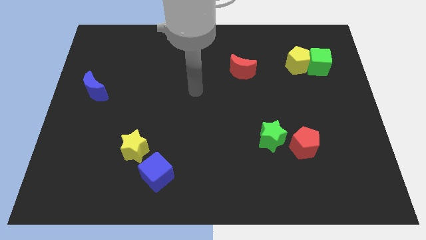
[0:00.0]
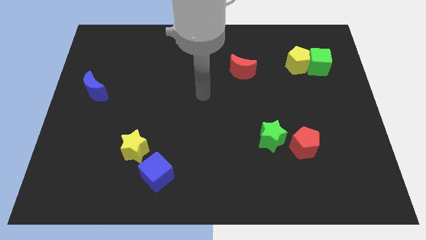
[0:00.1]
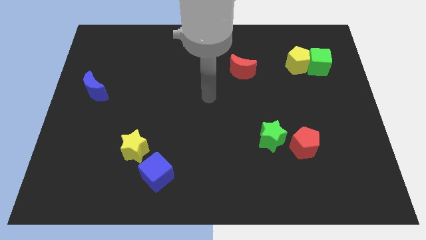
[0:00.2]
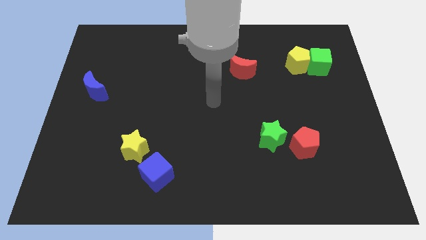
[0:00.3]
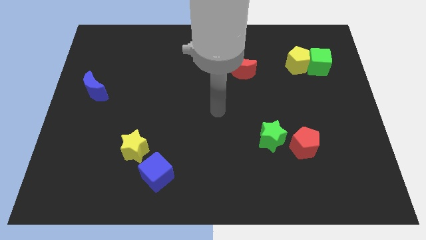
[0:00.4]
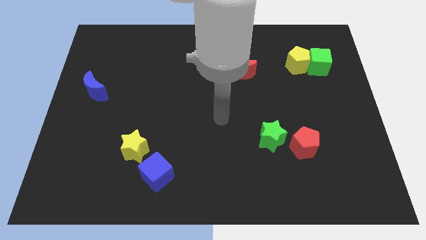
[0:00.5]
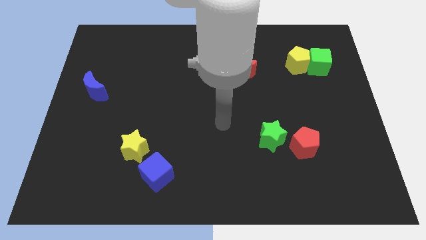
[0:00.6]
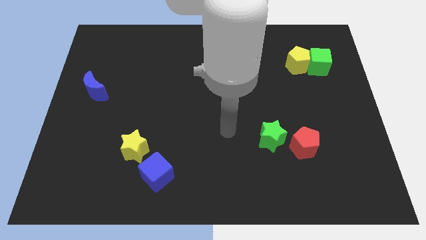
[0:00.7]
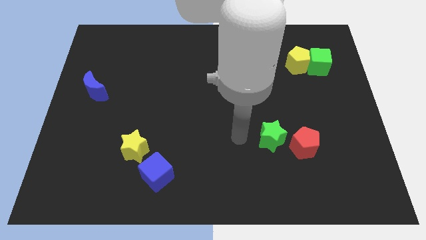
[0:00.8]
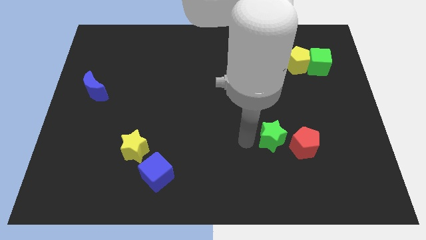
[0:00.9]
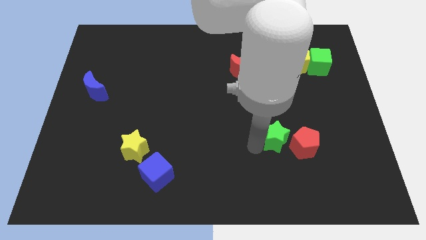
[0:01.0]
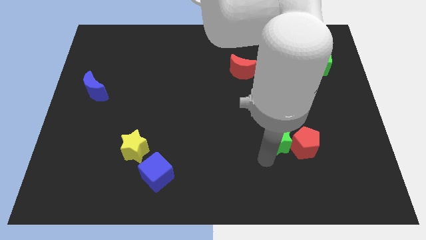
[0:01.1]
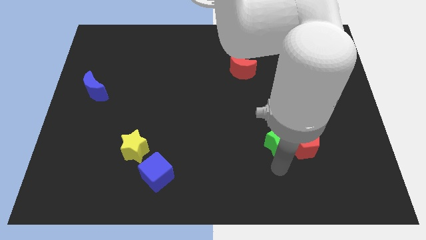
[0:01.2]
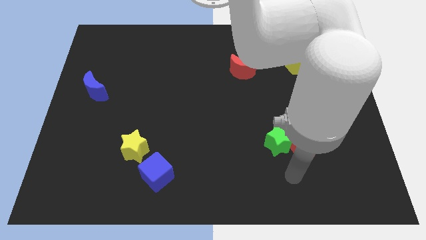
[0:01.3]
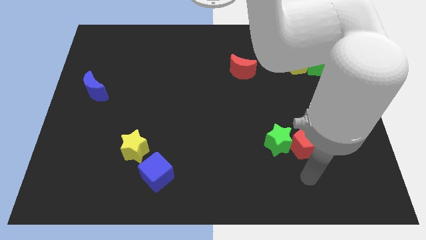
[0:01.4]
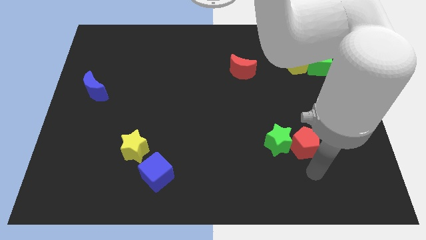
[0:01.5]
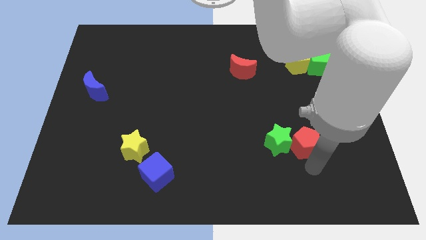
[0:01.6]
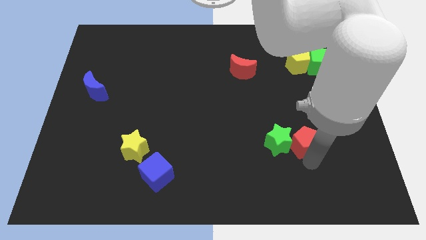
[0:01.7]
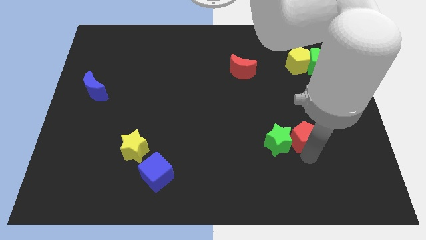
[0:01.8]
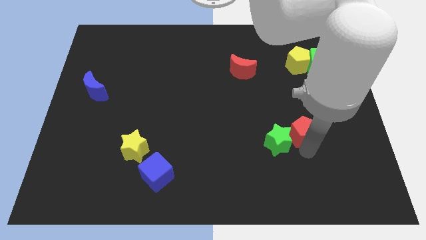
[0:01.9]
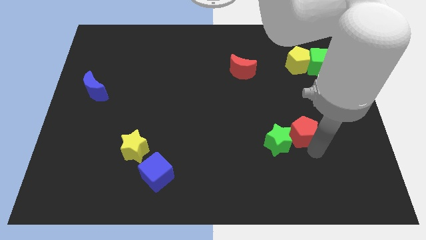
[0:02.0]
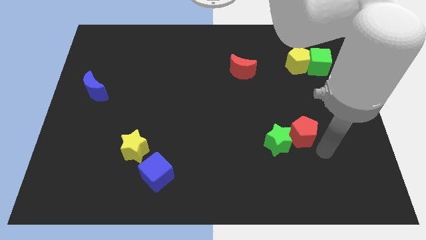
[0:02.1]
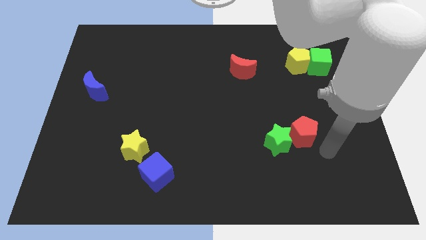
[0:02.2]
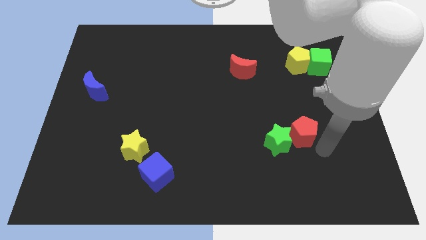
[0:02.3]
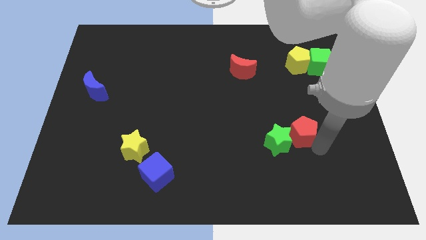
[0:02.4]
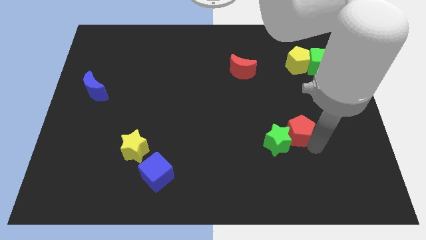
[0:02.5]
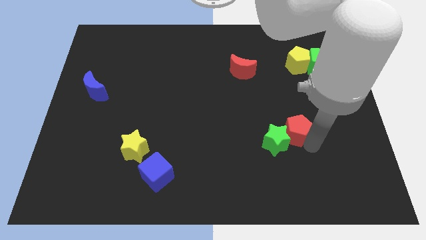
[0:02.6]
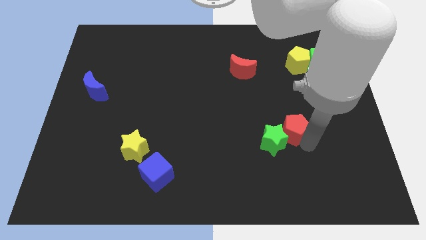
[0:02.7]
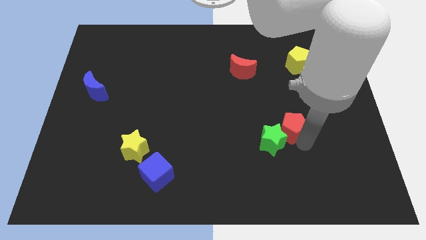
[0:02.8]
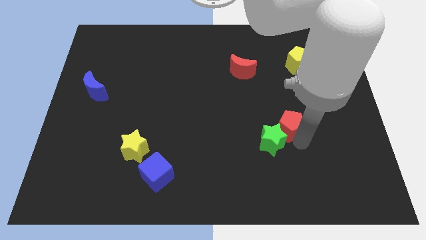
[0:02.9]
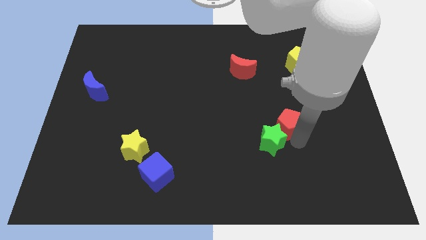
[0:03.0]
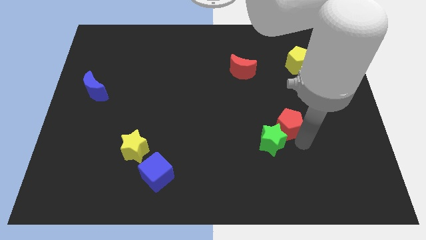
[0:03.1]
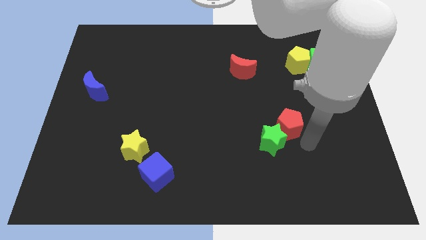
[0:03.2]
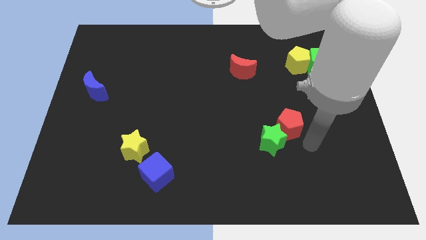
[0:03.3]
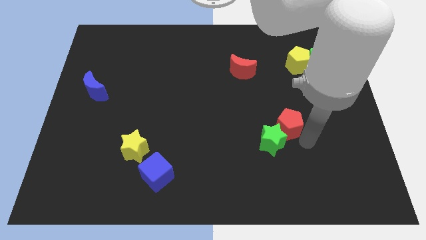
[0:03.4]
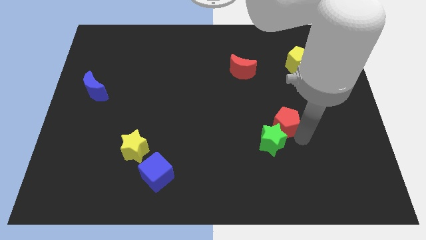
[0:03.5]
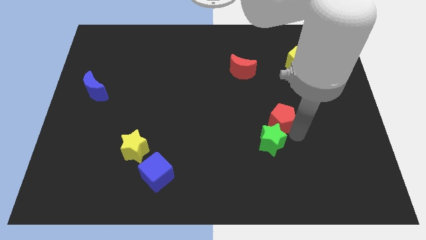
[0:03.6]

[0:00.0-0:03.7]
move the red pentagon upwards and to the left diagonally a little

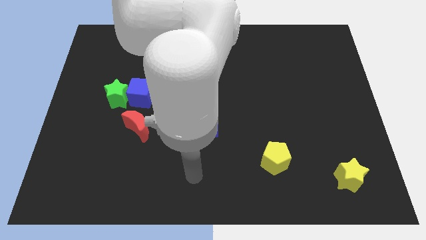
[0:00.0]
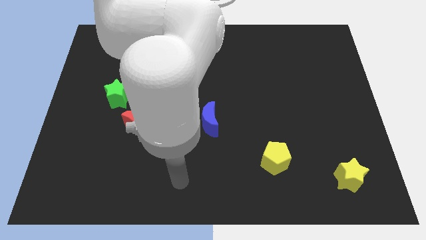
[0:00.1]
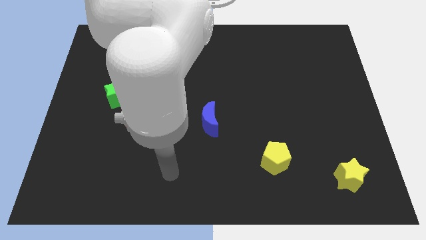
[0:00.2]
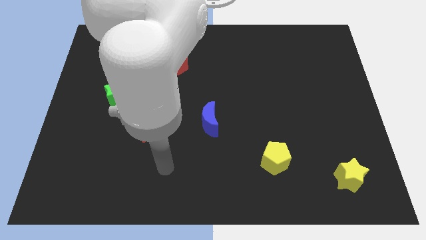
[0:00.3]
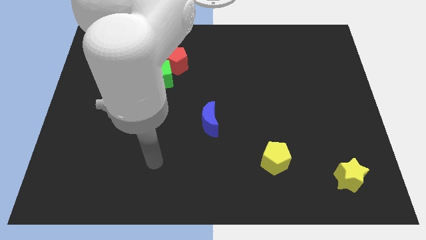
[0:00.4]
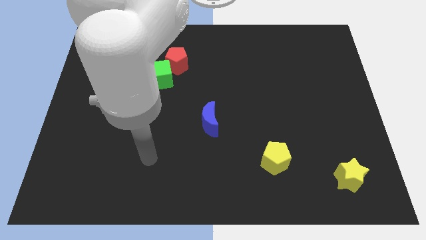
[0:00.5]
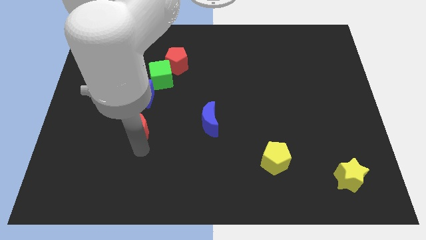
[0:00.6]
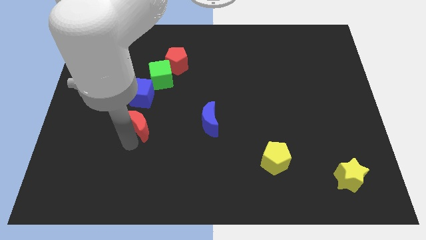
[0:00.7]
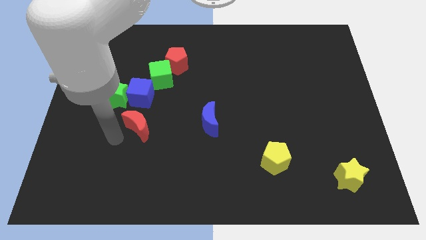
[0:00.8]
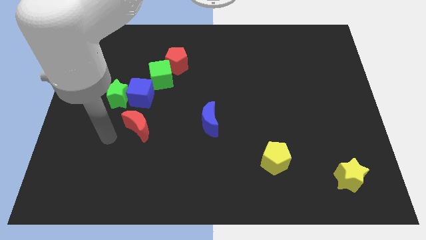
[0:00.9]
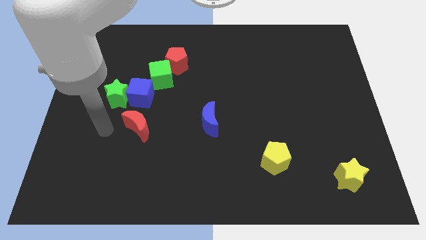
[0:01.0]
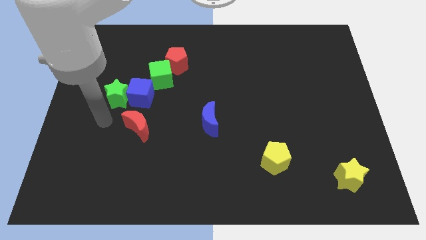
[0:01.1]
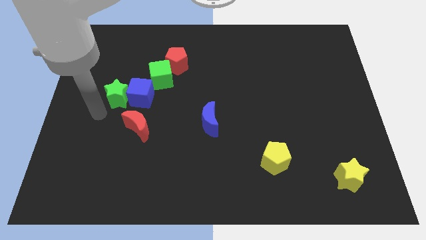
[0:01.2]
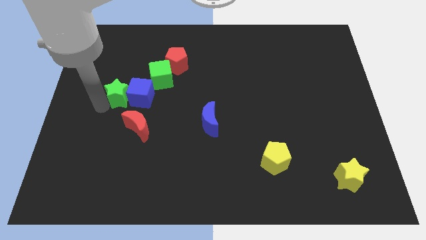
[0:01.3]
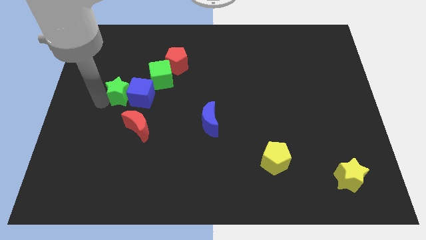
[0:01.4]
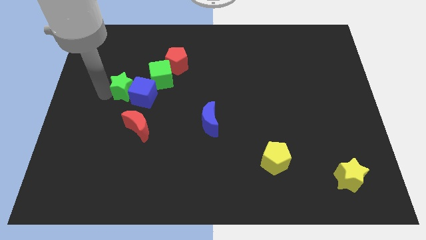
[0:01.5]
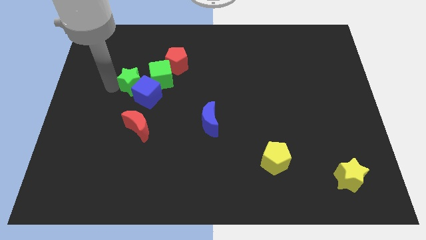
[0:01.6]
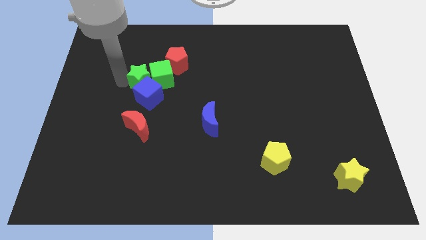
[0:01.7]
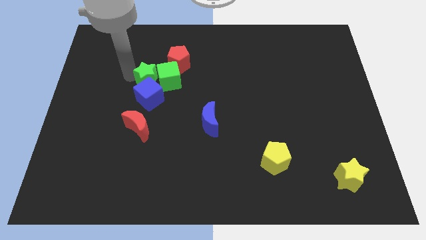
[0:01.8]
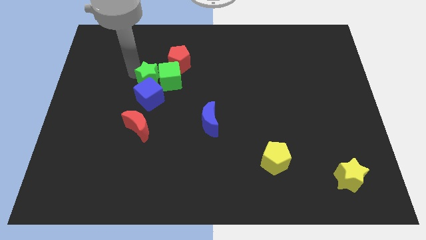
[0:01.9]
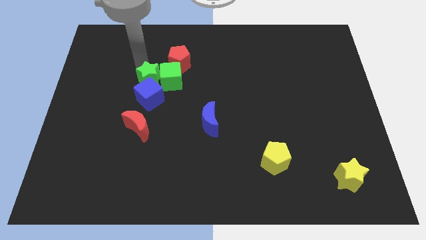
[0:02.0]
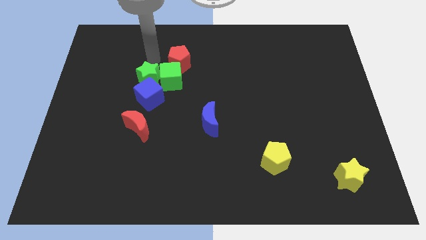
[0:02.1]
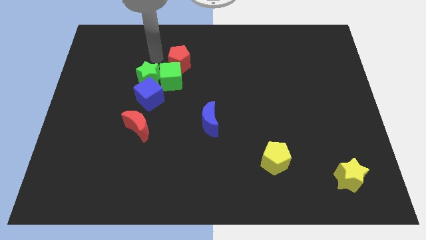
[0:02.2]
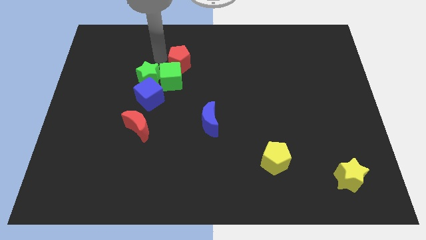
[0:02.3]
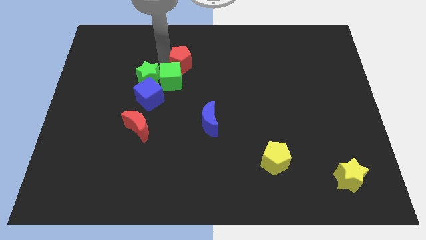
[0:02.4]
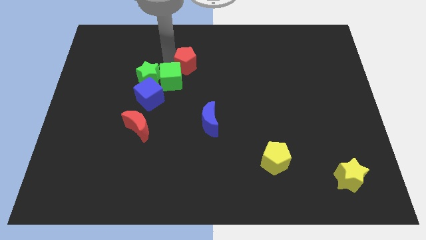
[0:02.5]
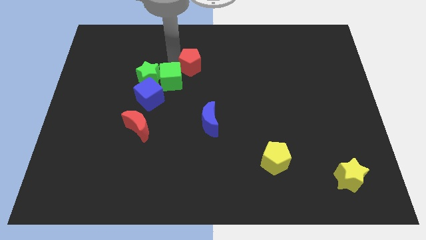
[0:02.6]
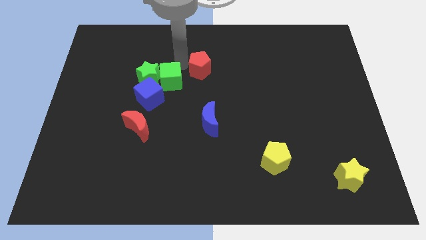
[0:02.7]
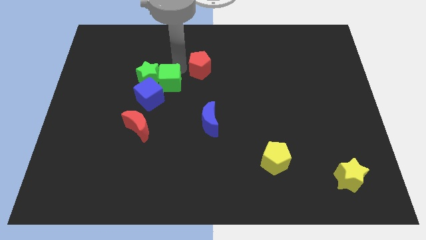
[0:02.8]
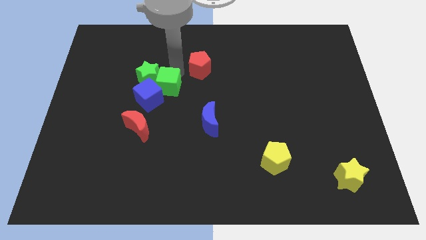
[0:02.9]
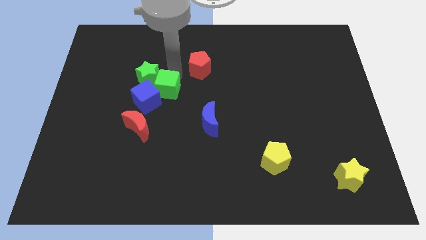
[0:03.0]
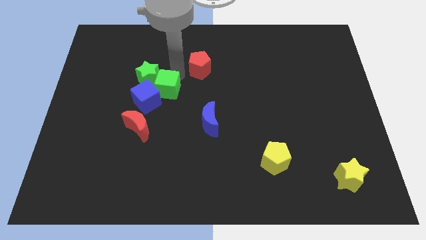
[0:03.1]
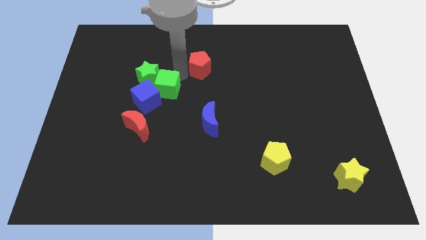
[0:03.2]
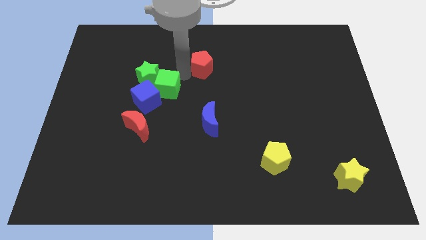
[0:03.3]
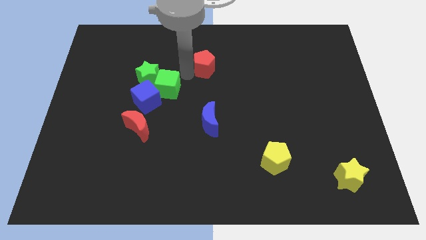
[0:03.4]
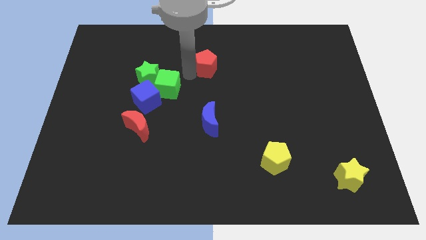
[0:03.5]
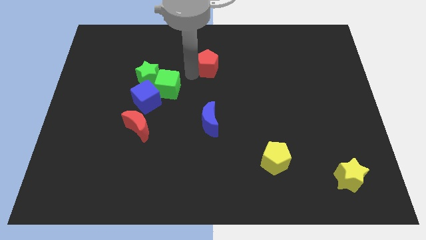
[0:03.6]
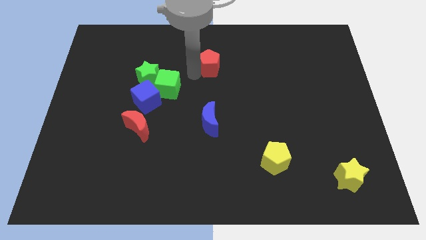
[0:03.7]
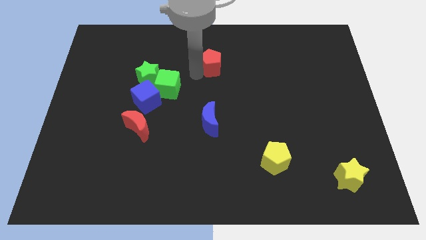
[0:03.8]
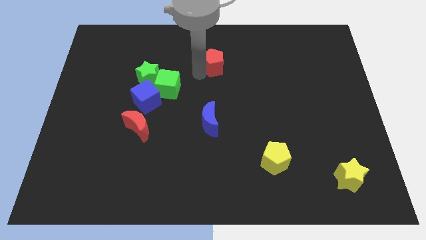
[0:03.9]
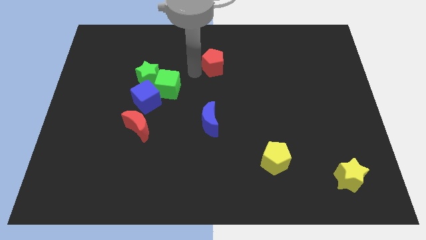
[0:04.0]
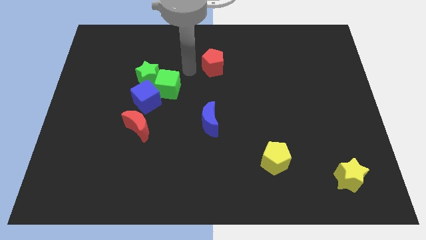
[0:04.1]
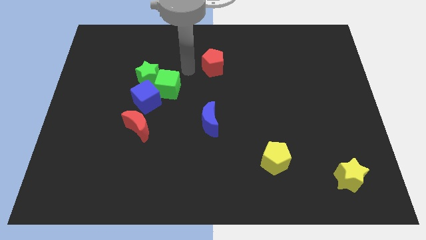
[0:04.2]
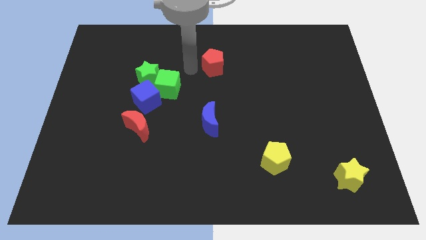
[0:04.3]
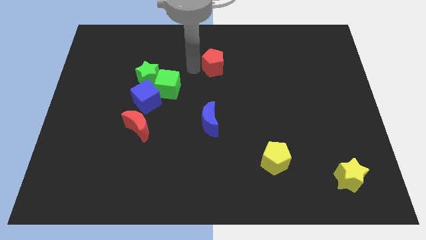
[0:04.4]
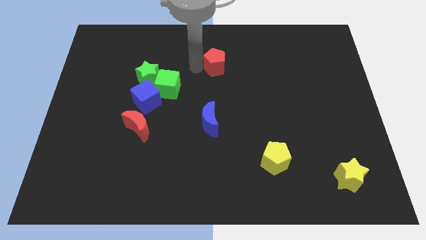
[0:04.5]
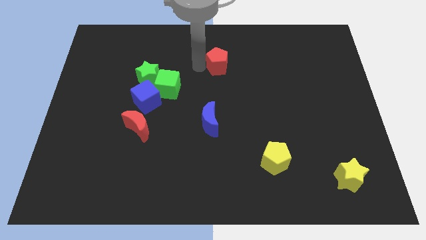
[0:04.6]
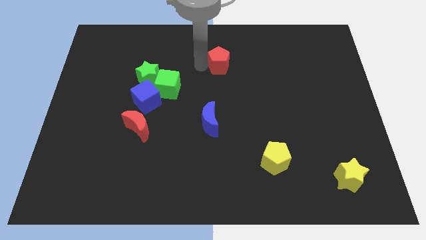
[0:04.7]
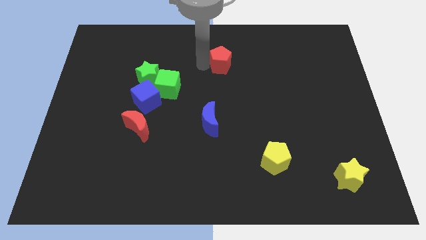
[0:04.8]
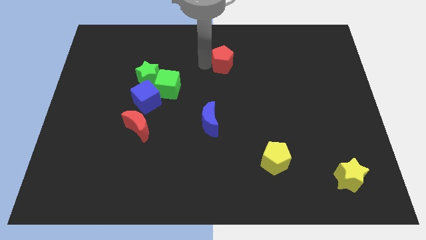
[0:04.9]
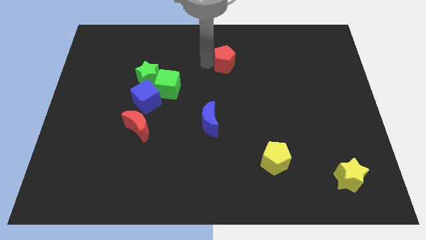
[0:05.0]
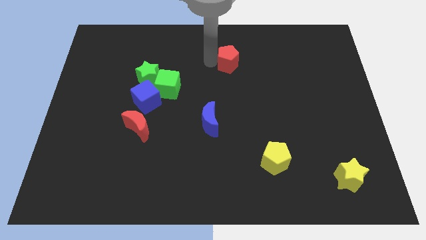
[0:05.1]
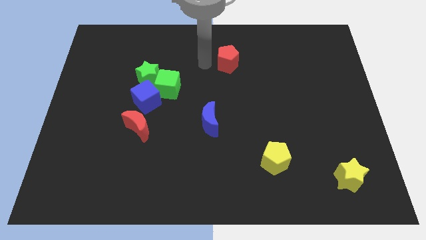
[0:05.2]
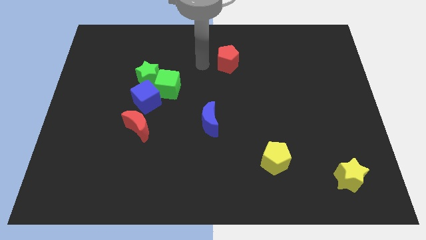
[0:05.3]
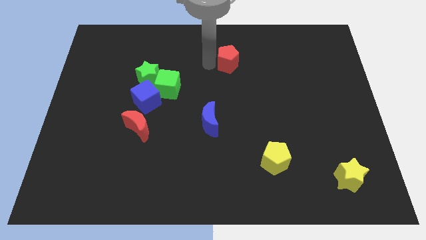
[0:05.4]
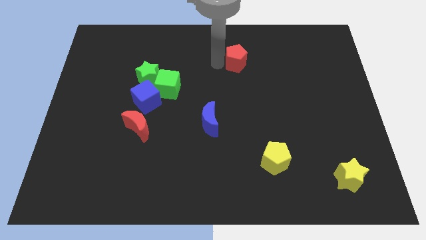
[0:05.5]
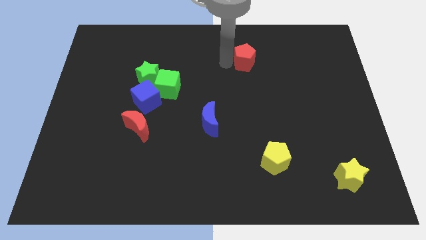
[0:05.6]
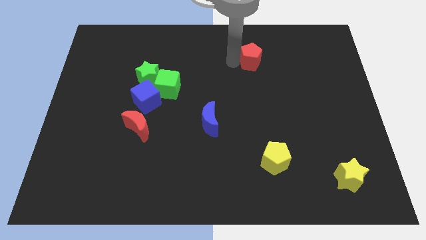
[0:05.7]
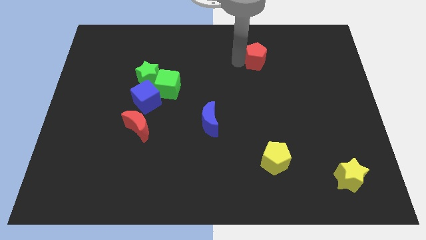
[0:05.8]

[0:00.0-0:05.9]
push the red pentagon to the right
